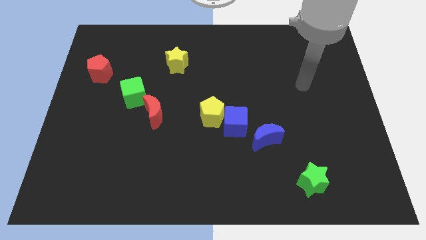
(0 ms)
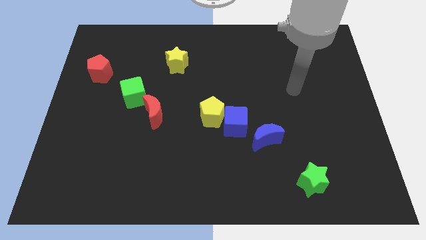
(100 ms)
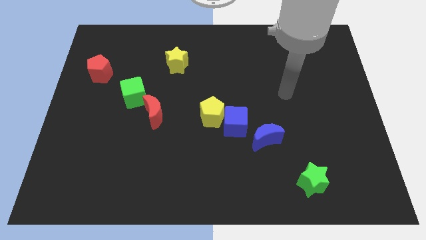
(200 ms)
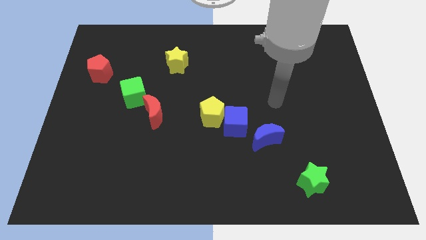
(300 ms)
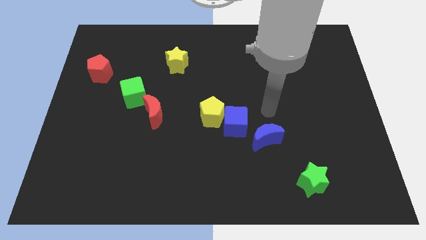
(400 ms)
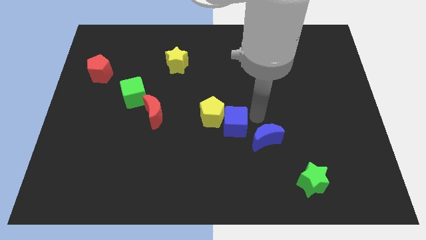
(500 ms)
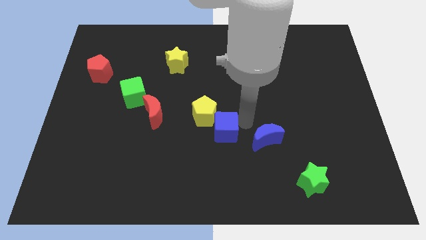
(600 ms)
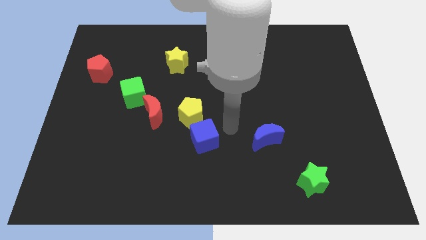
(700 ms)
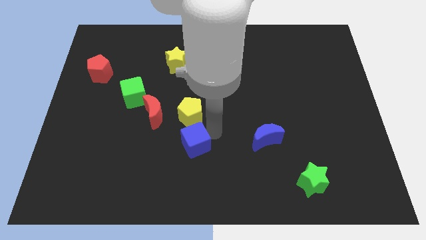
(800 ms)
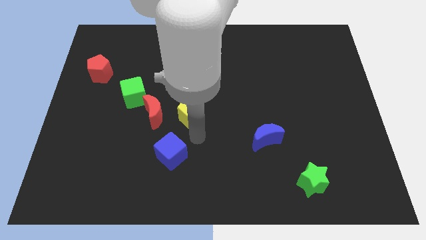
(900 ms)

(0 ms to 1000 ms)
pull the yellow pentagon apart from the blue cube

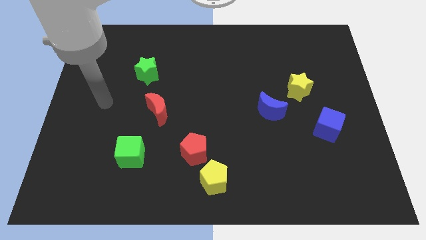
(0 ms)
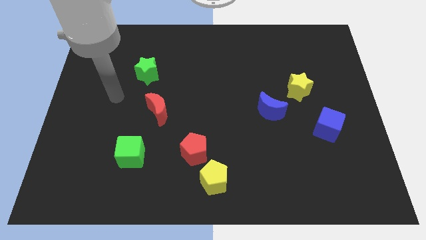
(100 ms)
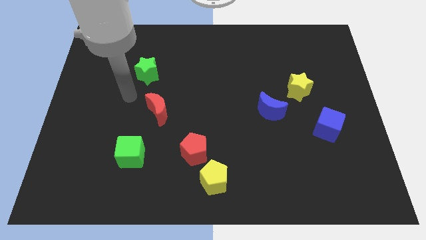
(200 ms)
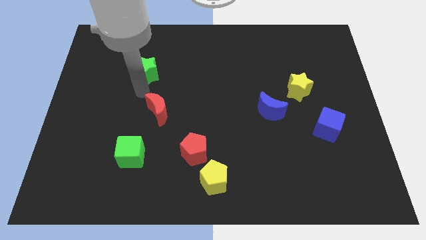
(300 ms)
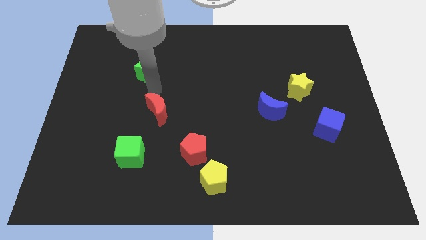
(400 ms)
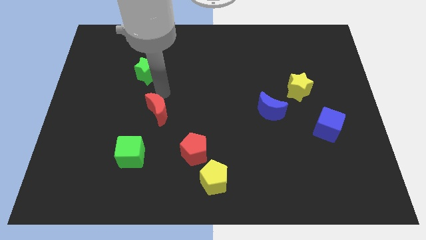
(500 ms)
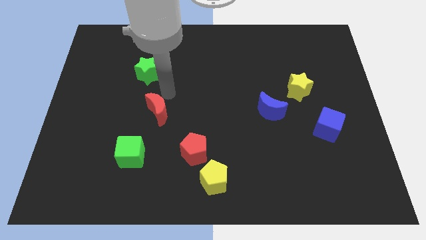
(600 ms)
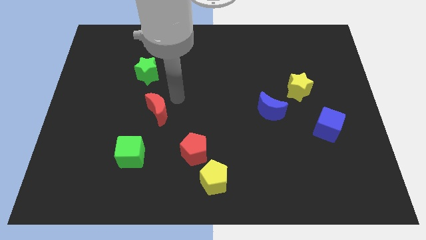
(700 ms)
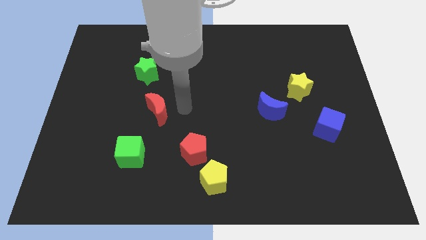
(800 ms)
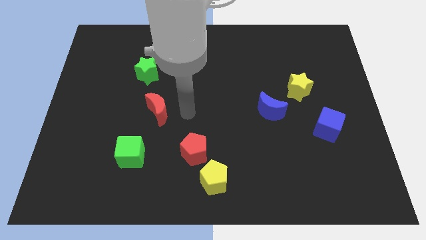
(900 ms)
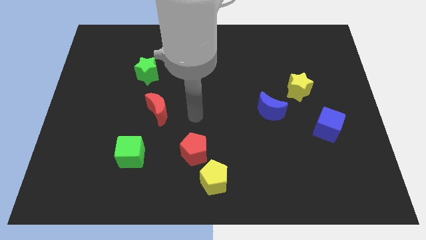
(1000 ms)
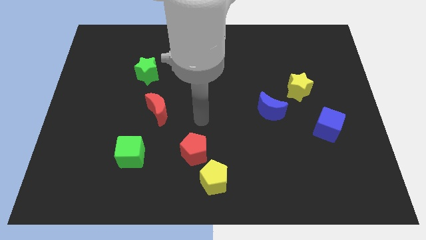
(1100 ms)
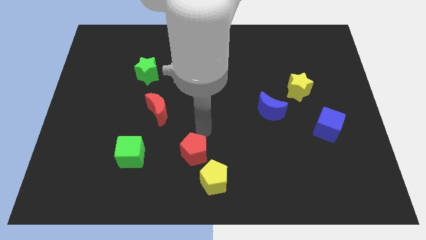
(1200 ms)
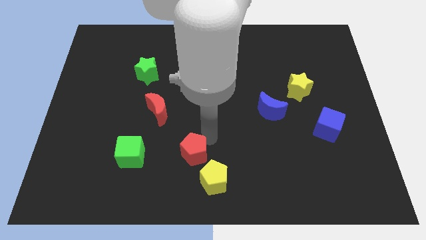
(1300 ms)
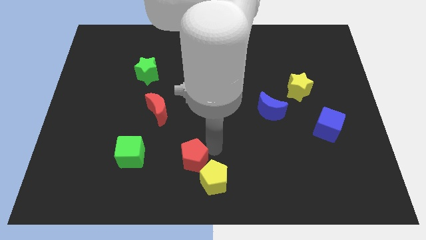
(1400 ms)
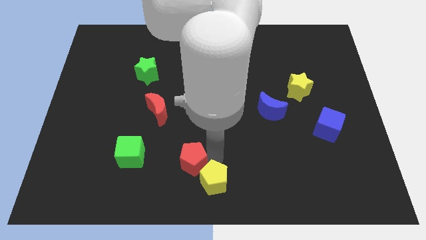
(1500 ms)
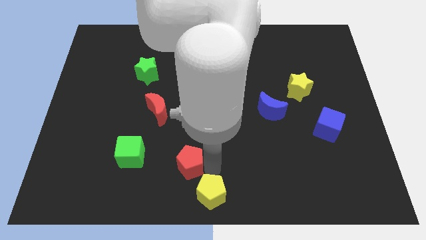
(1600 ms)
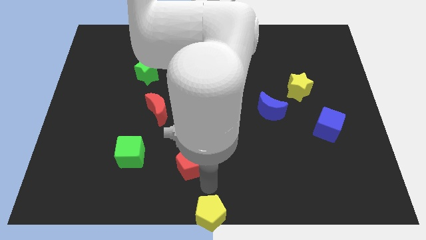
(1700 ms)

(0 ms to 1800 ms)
move the red pentagon away from the yellow pentagon

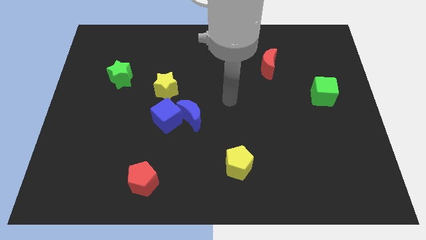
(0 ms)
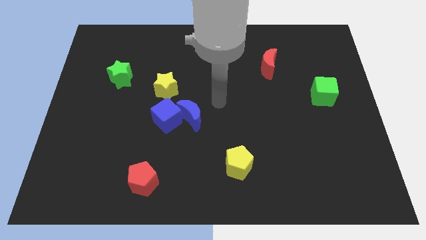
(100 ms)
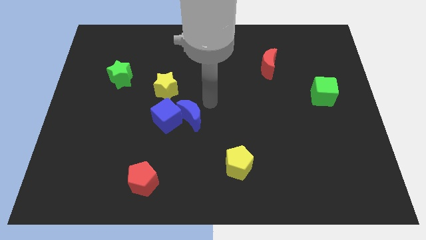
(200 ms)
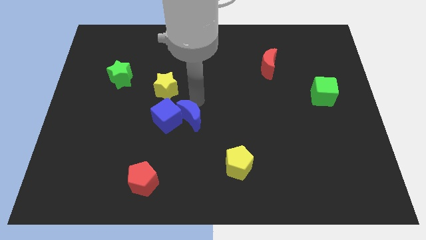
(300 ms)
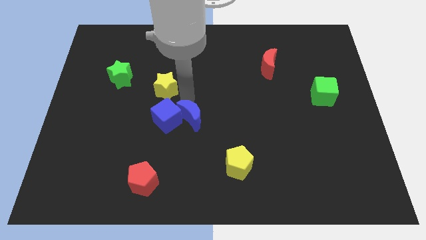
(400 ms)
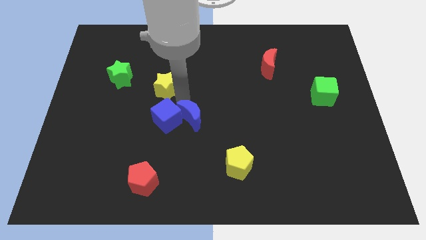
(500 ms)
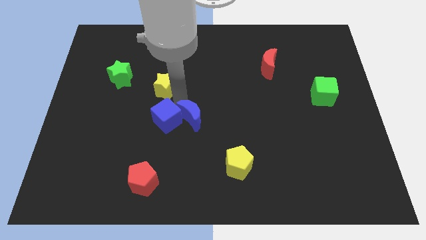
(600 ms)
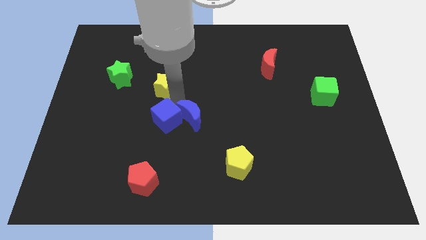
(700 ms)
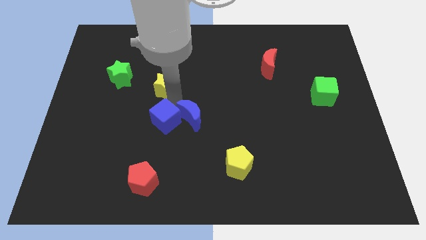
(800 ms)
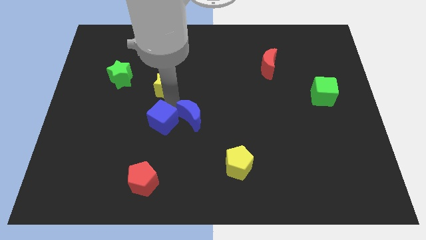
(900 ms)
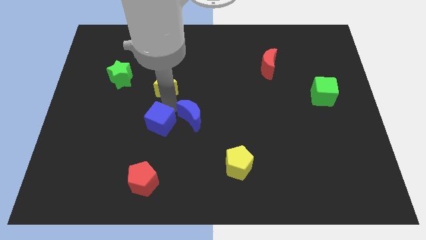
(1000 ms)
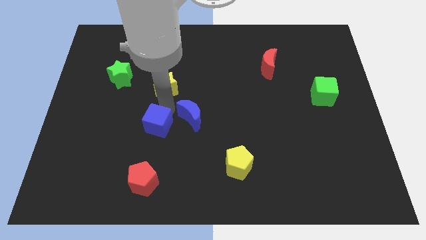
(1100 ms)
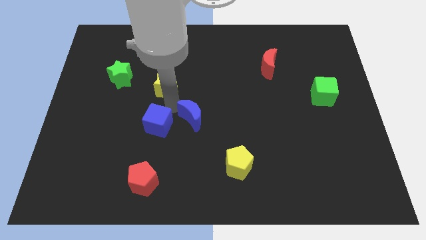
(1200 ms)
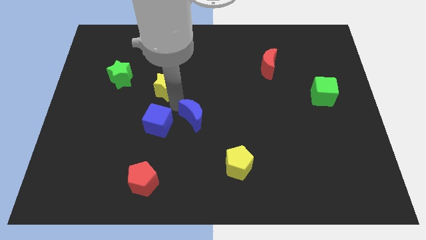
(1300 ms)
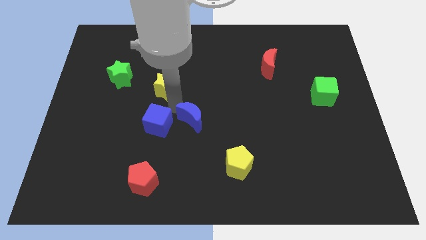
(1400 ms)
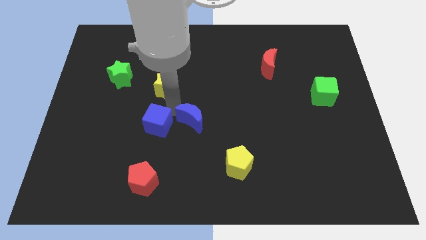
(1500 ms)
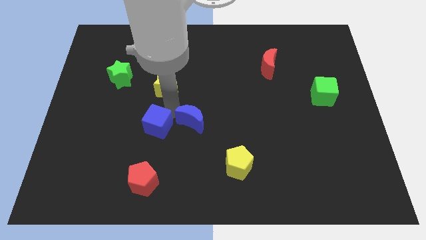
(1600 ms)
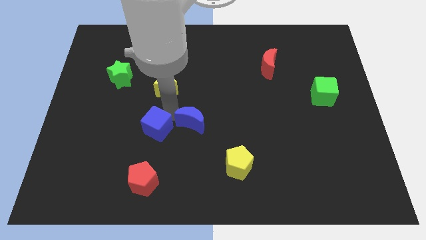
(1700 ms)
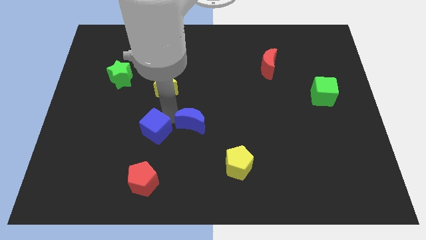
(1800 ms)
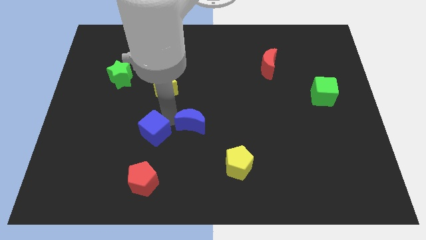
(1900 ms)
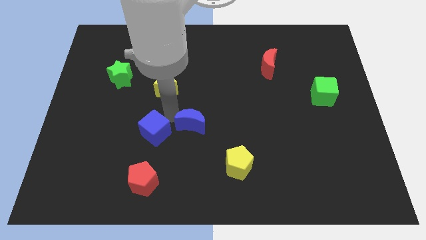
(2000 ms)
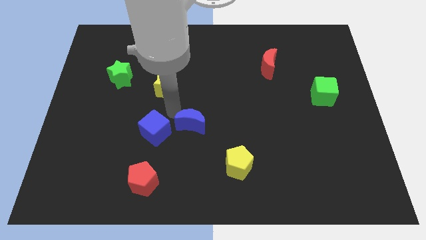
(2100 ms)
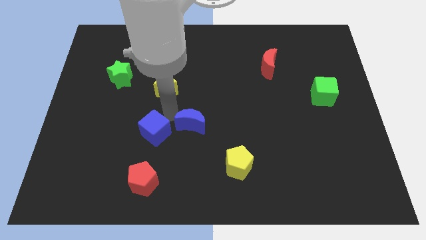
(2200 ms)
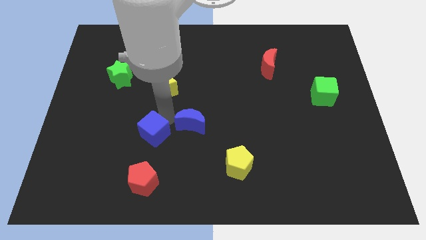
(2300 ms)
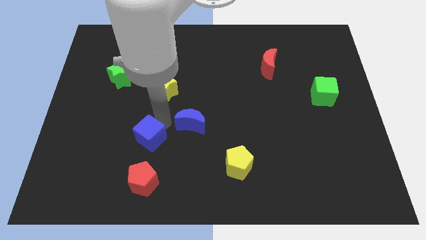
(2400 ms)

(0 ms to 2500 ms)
move the blue cube away from the blue moon and yellow star

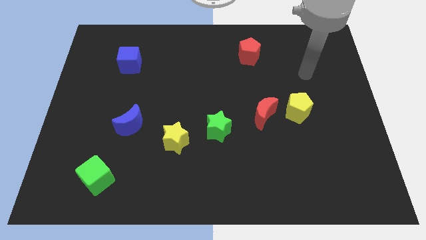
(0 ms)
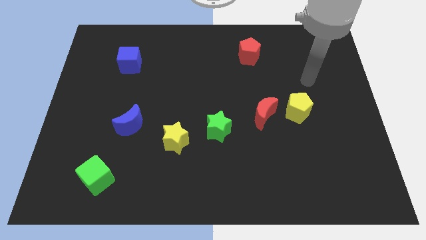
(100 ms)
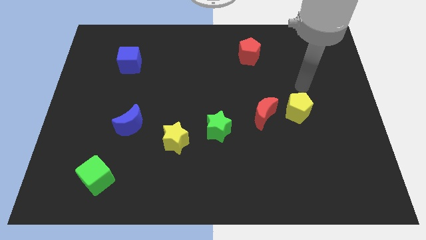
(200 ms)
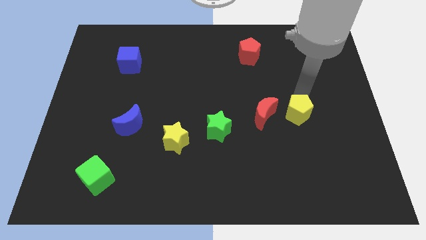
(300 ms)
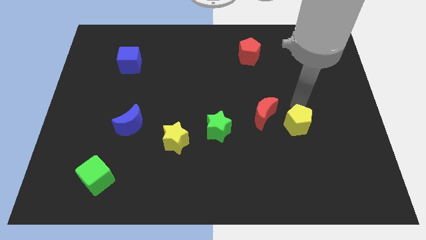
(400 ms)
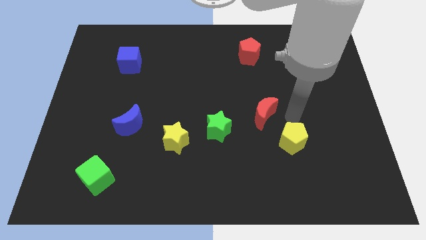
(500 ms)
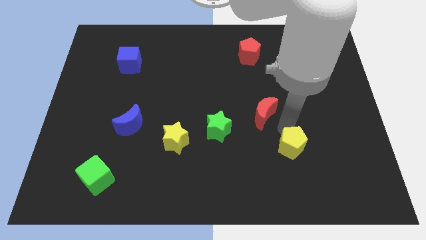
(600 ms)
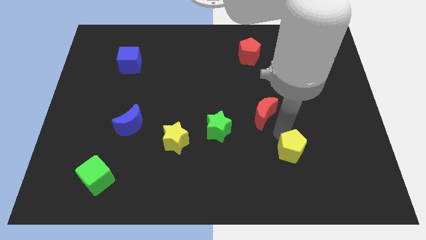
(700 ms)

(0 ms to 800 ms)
separate the red moon from the yellow pentagon

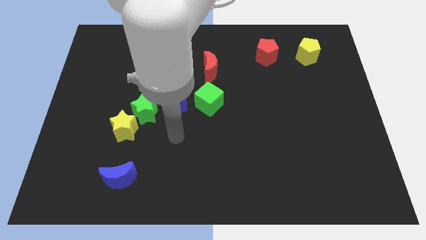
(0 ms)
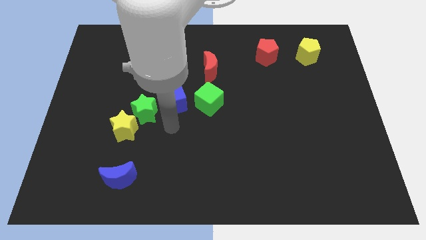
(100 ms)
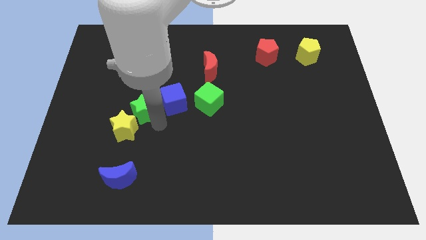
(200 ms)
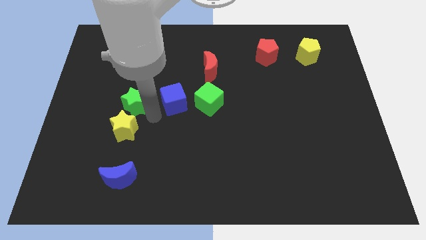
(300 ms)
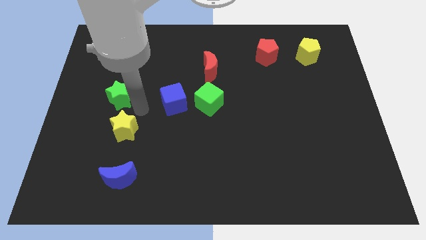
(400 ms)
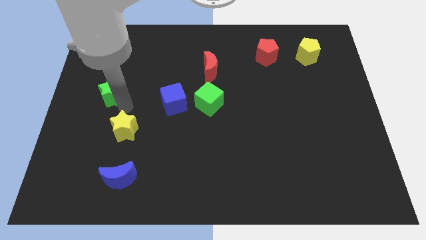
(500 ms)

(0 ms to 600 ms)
move the yellow star away from the green star

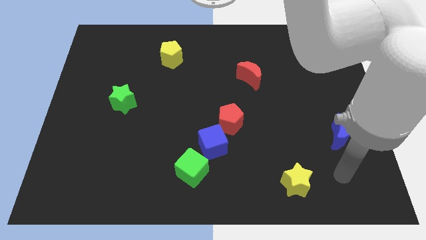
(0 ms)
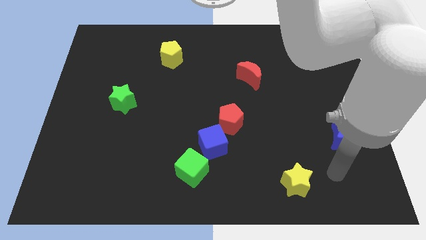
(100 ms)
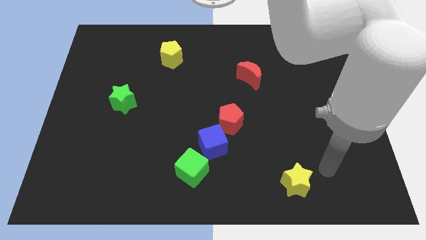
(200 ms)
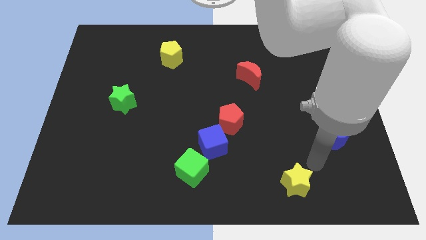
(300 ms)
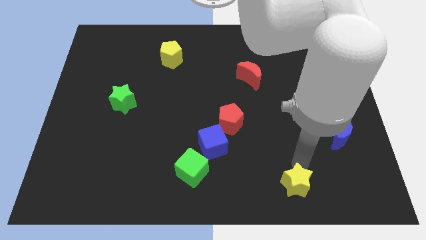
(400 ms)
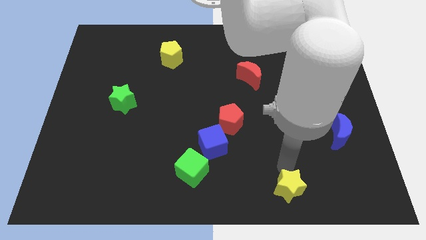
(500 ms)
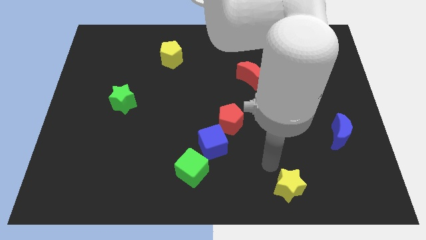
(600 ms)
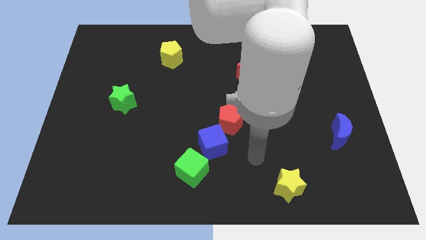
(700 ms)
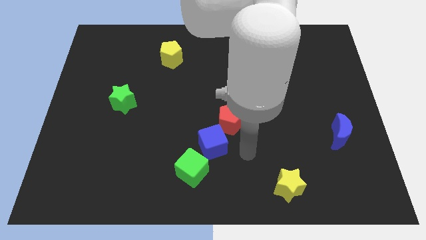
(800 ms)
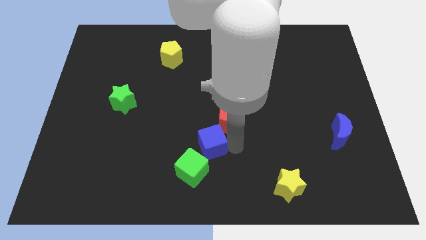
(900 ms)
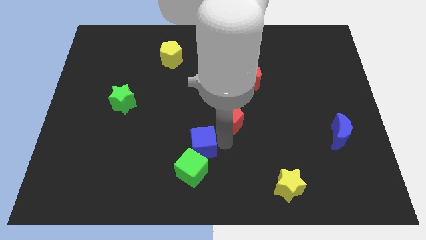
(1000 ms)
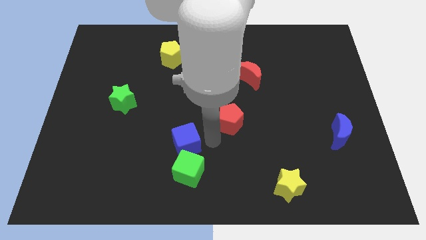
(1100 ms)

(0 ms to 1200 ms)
pull the red pentagon apart from the blue cube

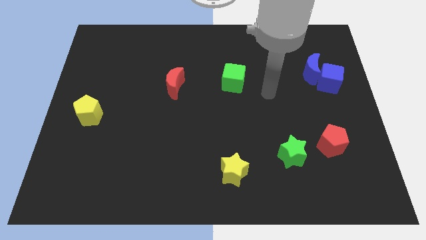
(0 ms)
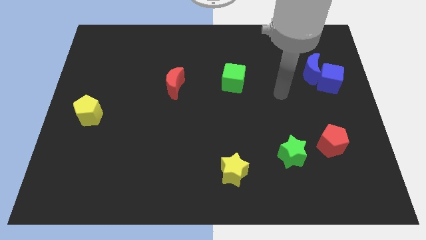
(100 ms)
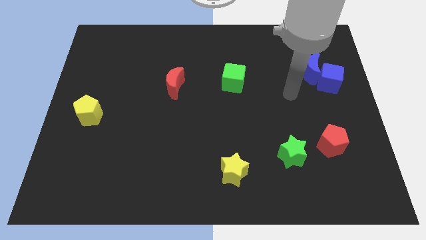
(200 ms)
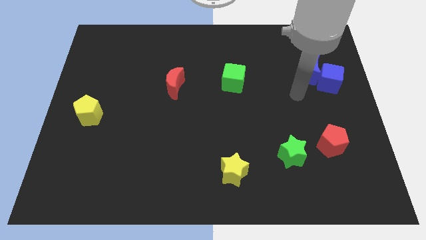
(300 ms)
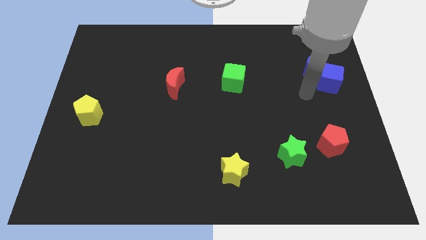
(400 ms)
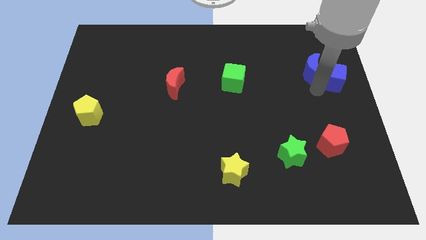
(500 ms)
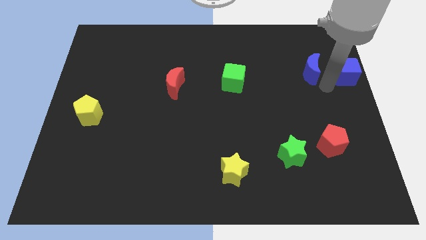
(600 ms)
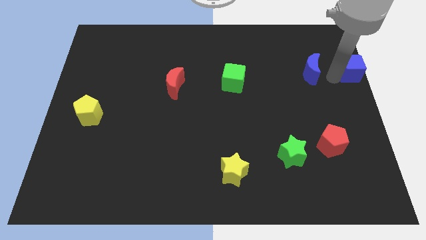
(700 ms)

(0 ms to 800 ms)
separate the blue moon from the blue cube

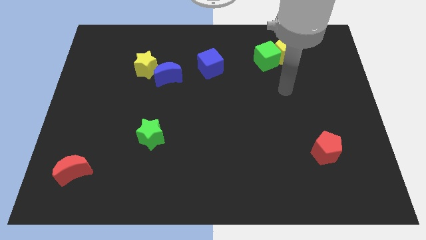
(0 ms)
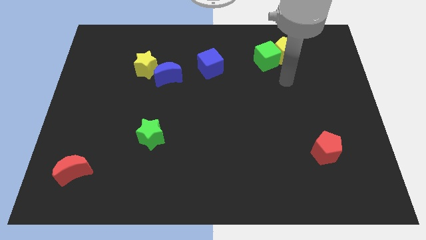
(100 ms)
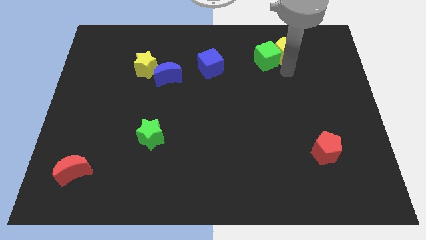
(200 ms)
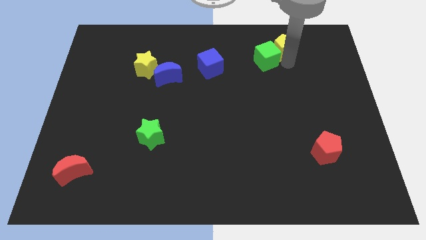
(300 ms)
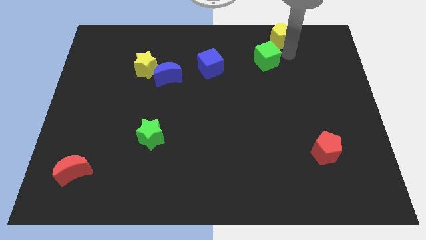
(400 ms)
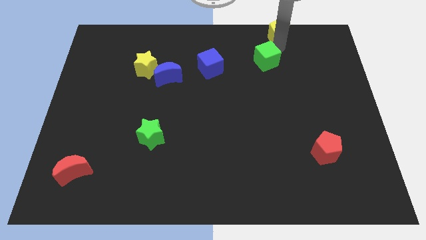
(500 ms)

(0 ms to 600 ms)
pull the green cube apart from the yellow pentagon
